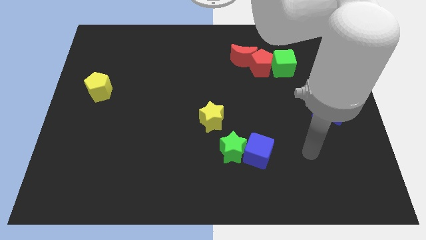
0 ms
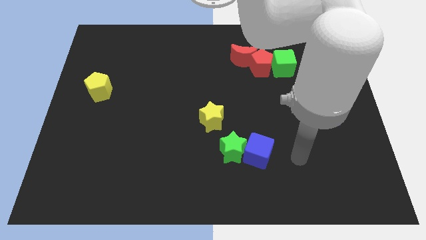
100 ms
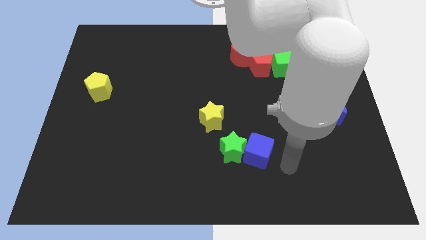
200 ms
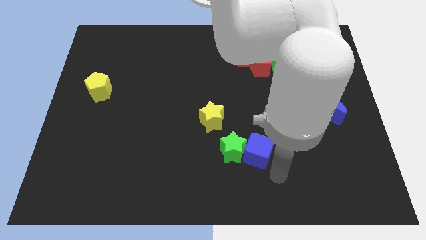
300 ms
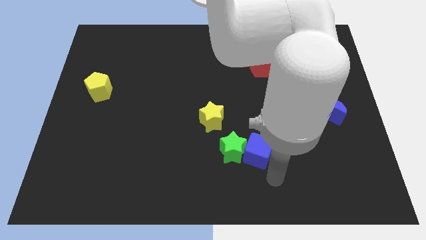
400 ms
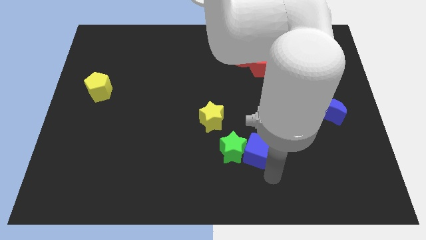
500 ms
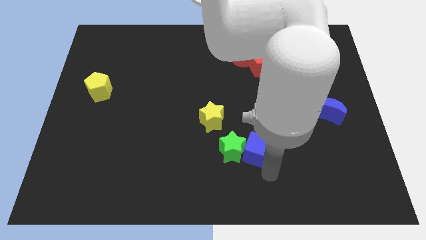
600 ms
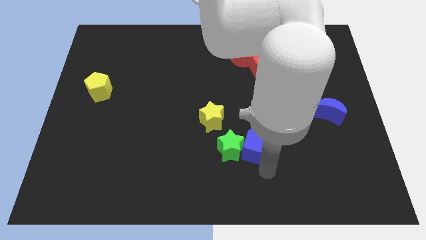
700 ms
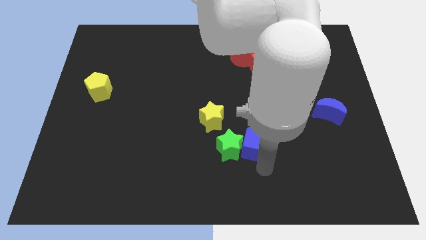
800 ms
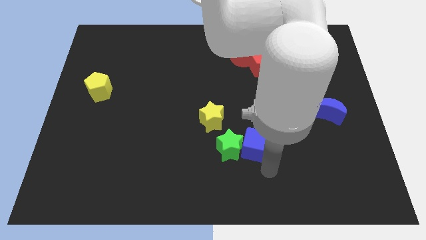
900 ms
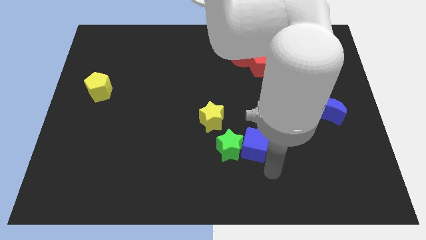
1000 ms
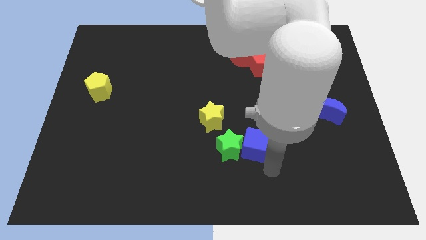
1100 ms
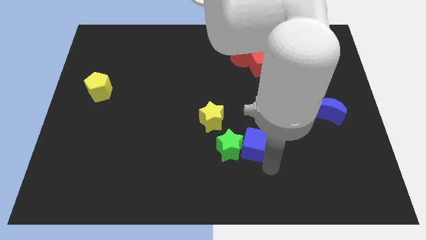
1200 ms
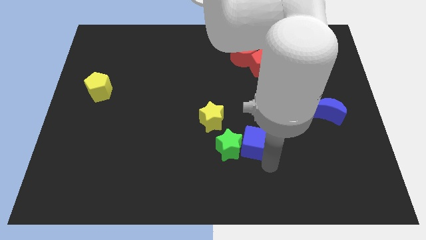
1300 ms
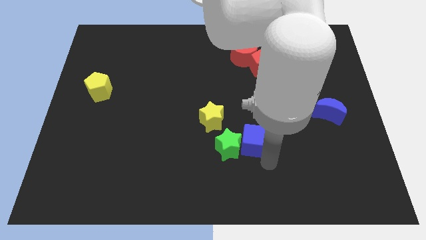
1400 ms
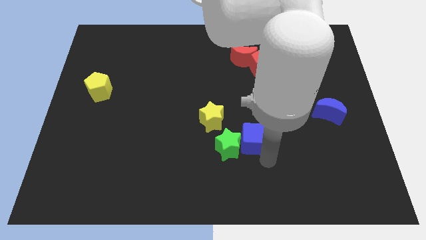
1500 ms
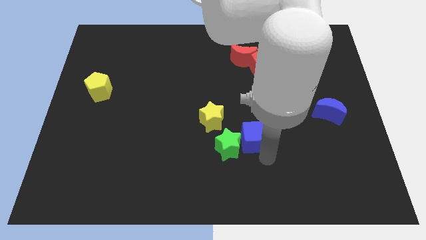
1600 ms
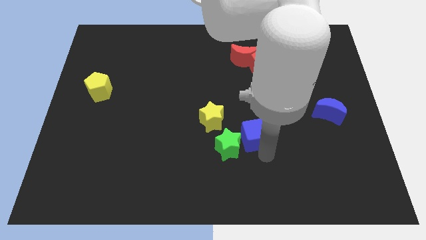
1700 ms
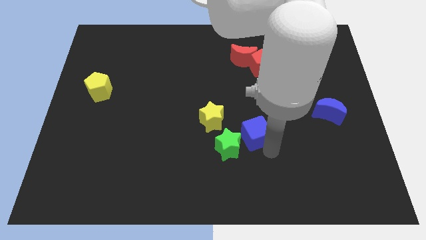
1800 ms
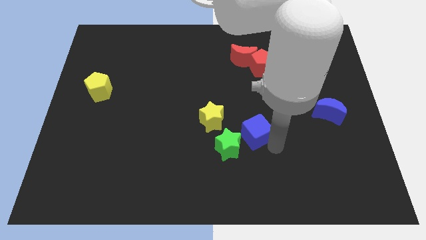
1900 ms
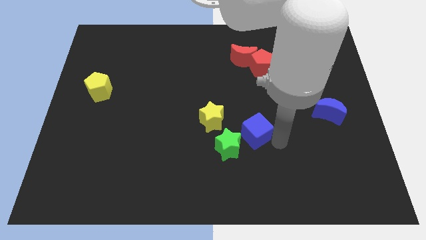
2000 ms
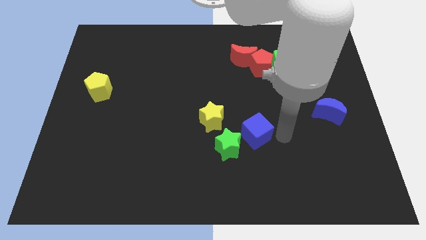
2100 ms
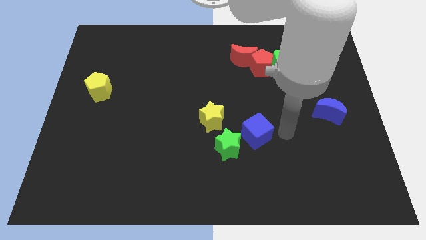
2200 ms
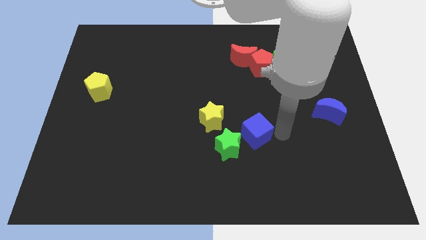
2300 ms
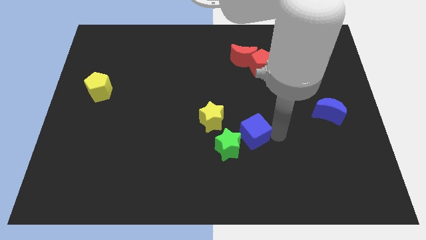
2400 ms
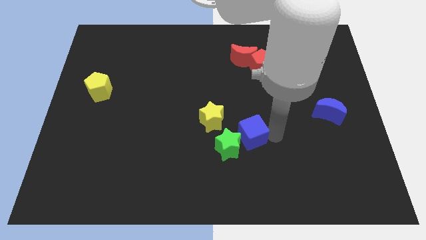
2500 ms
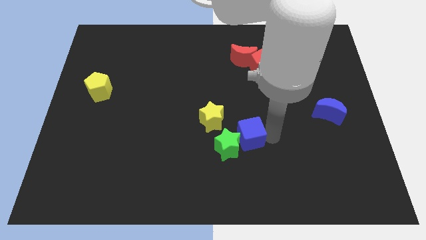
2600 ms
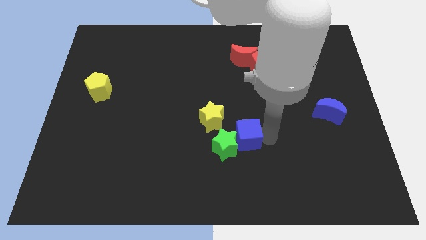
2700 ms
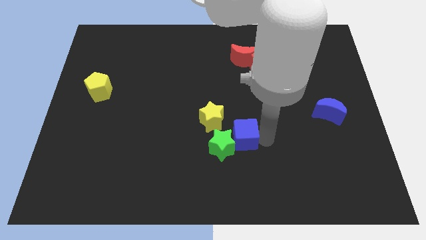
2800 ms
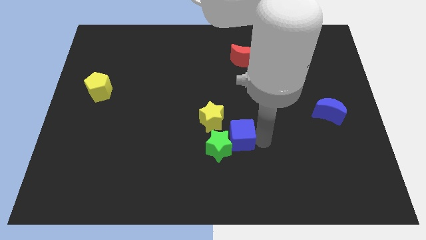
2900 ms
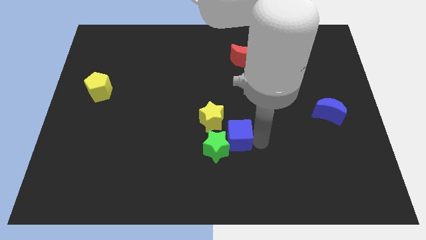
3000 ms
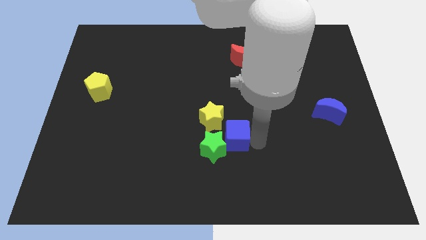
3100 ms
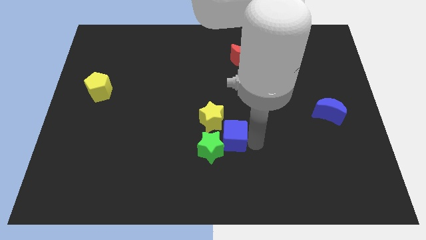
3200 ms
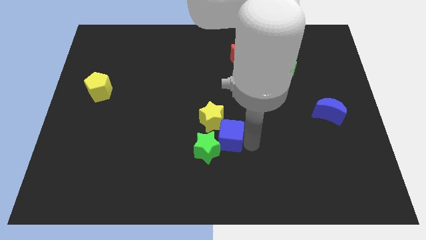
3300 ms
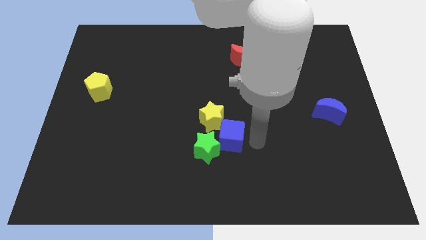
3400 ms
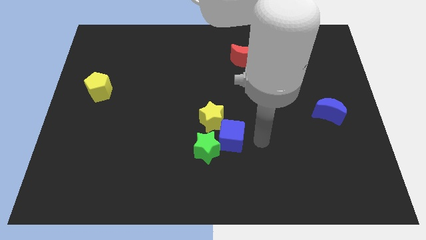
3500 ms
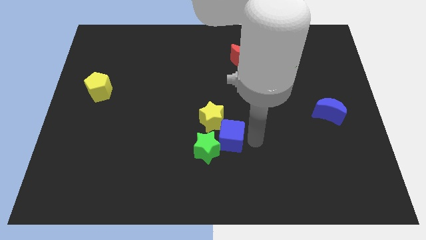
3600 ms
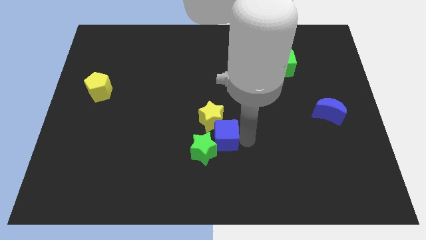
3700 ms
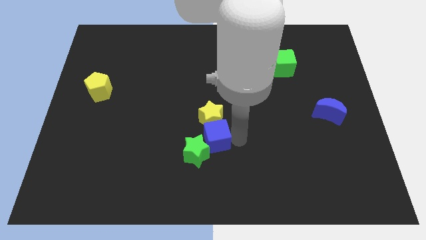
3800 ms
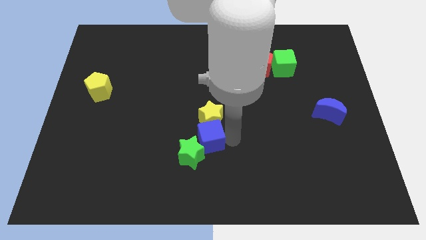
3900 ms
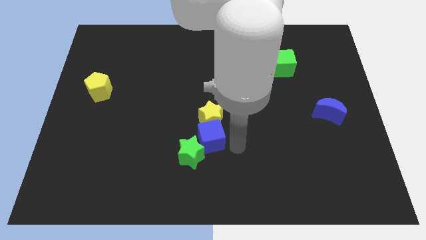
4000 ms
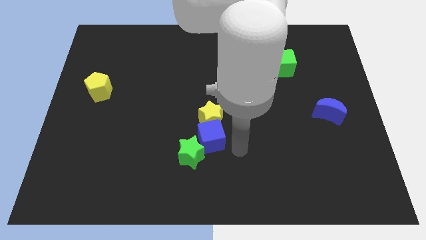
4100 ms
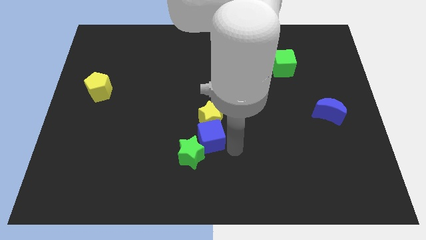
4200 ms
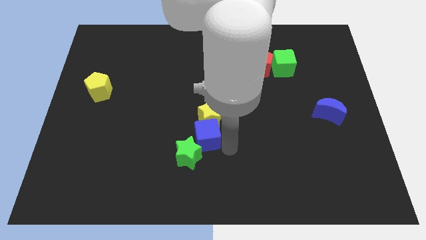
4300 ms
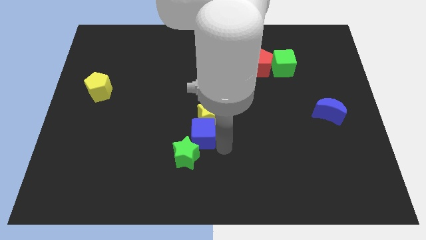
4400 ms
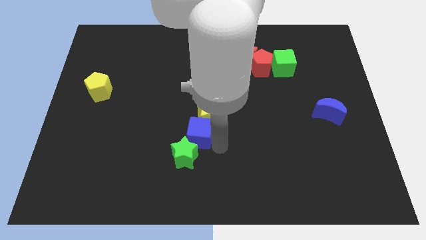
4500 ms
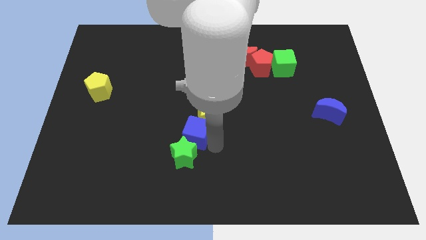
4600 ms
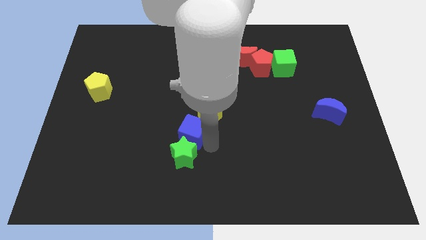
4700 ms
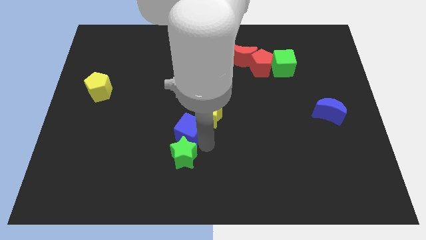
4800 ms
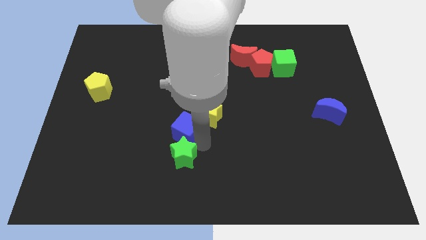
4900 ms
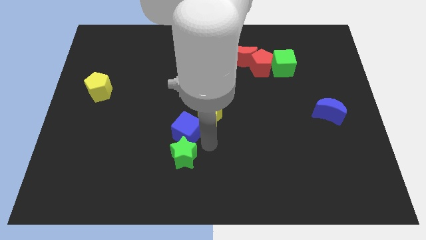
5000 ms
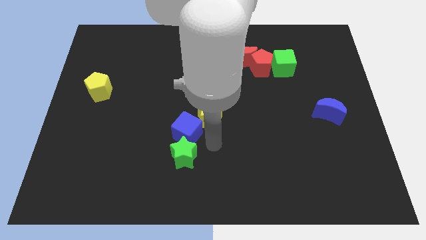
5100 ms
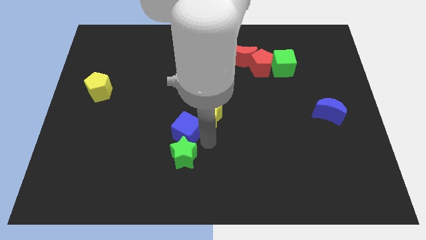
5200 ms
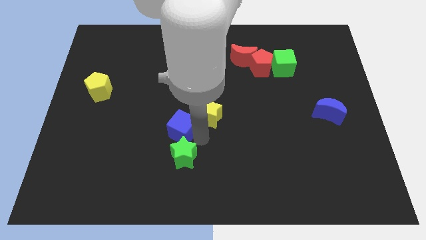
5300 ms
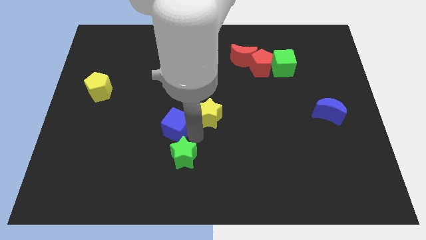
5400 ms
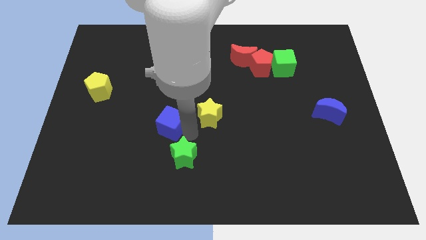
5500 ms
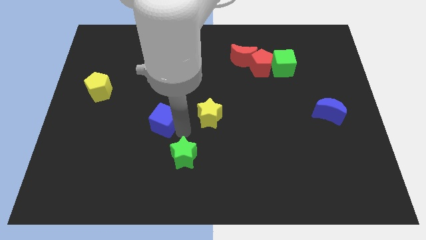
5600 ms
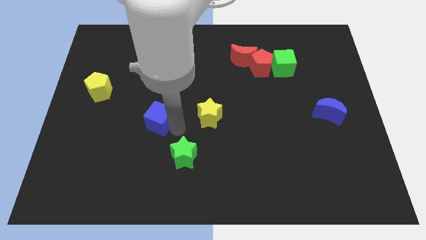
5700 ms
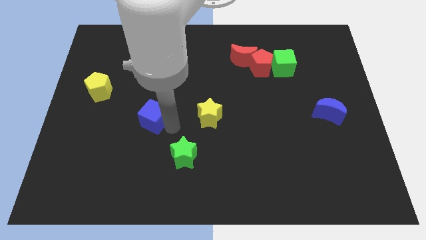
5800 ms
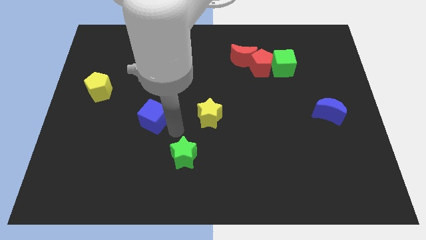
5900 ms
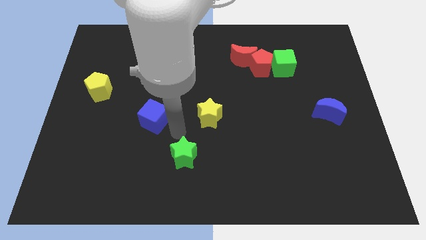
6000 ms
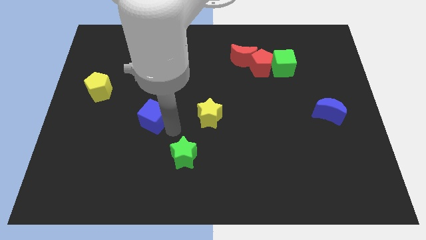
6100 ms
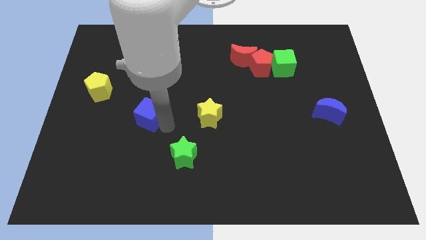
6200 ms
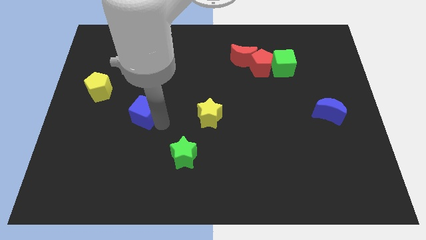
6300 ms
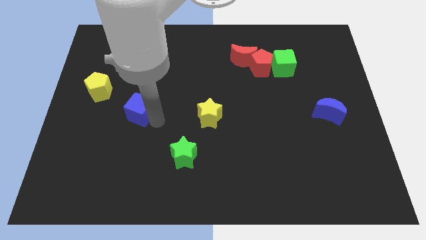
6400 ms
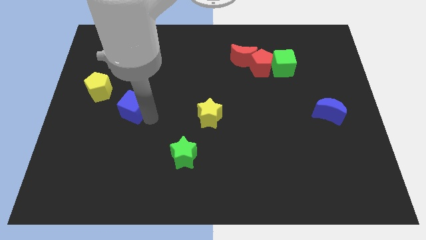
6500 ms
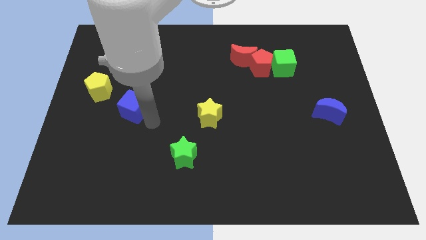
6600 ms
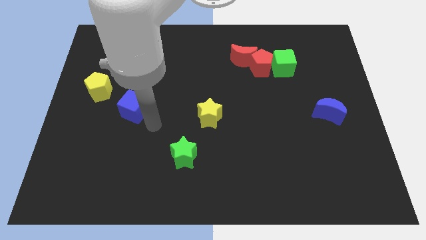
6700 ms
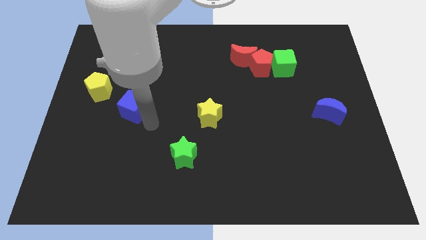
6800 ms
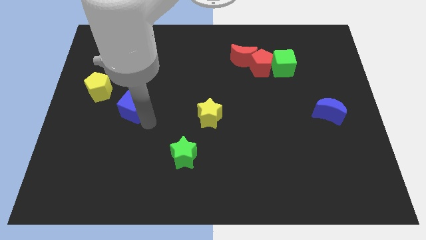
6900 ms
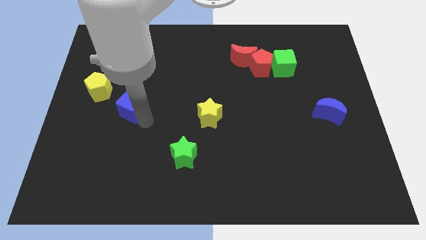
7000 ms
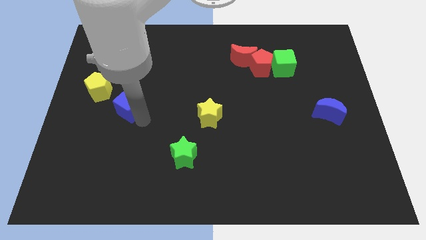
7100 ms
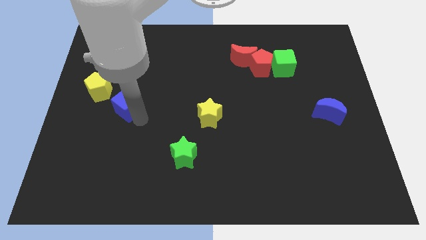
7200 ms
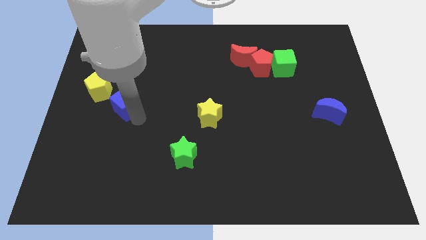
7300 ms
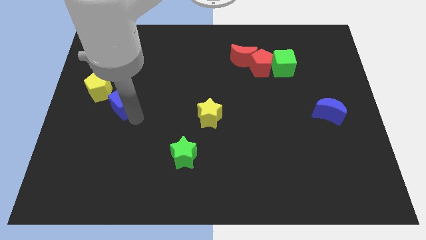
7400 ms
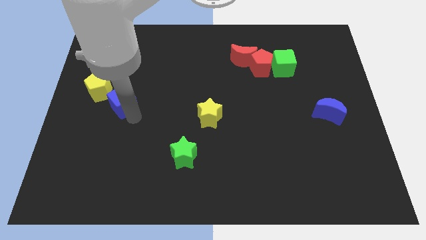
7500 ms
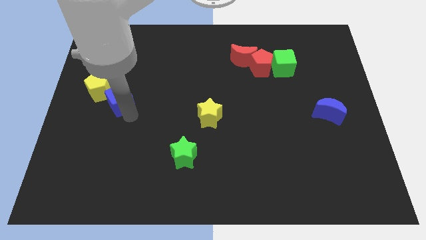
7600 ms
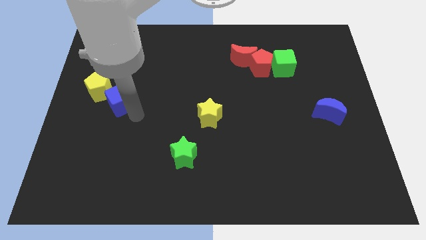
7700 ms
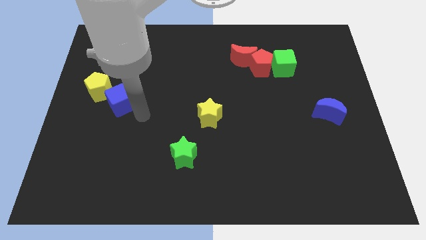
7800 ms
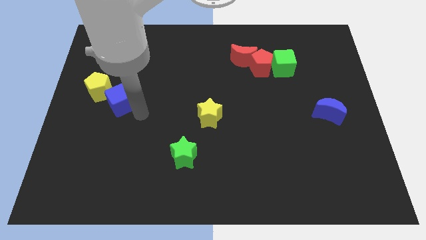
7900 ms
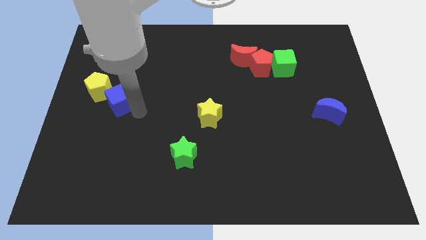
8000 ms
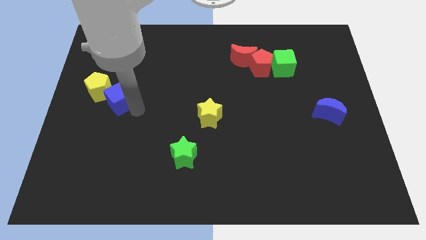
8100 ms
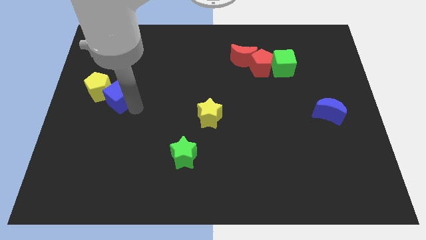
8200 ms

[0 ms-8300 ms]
slide the blue cube to the yellow pentagon
